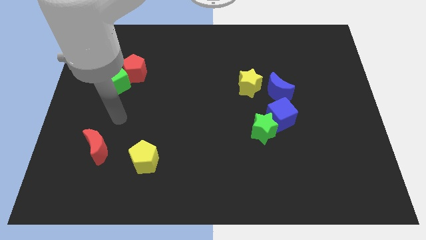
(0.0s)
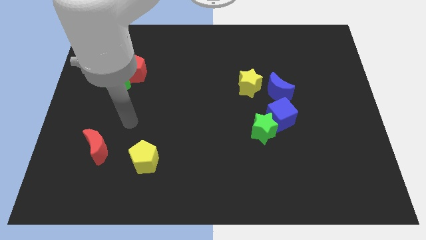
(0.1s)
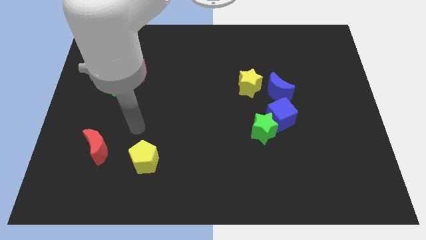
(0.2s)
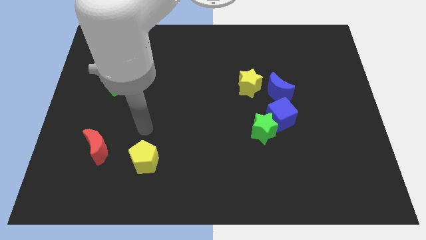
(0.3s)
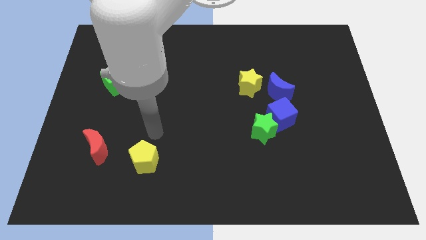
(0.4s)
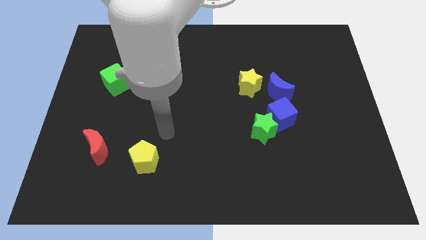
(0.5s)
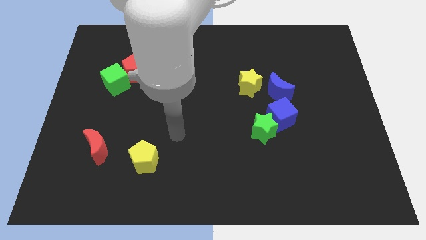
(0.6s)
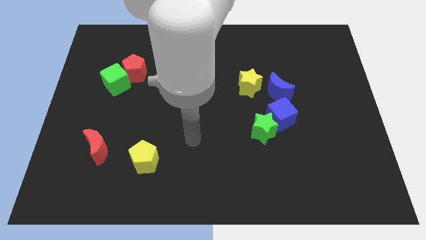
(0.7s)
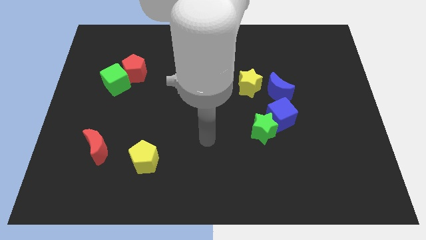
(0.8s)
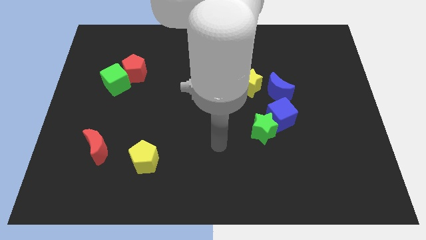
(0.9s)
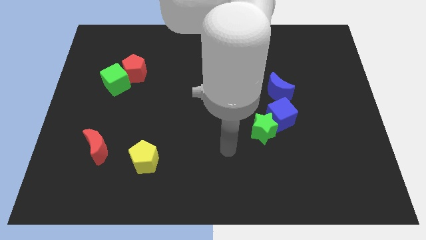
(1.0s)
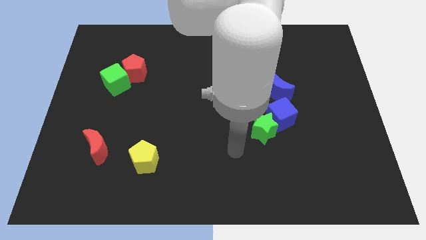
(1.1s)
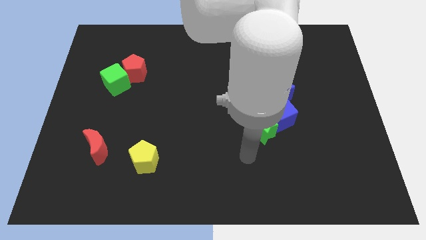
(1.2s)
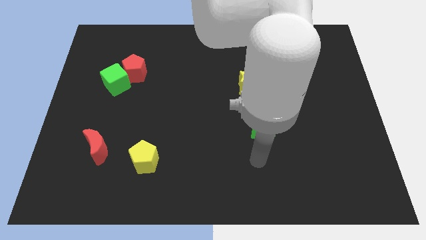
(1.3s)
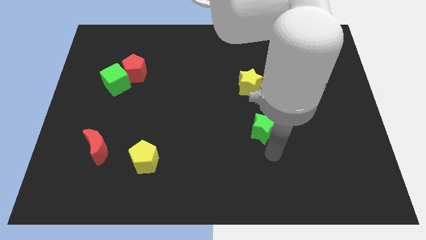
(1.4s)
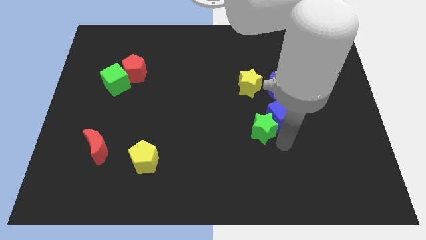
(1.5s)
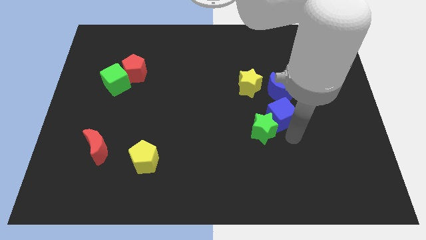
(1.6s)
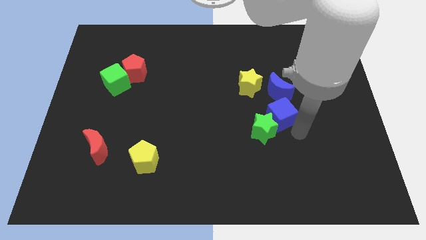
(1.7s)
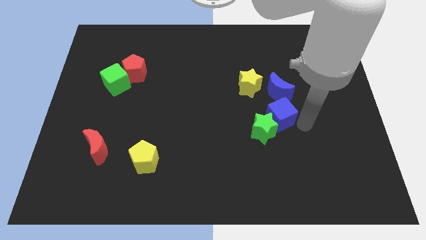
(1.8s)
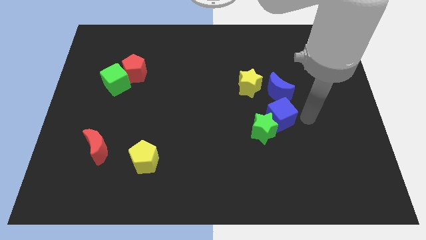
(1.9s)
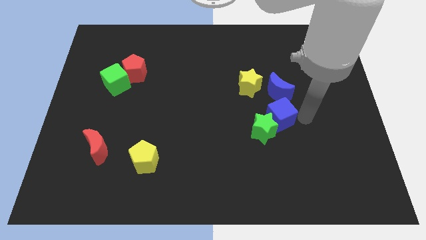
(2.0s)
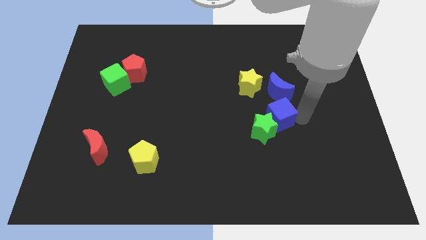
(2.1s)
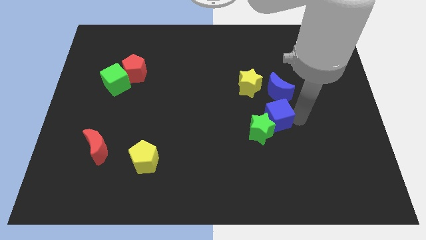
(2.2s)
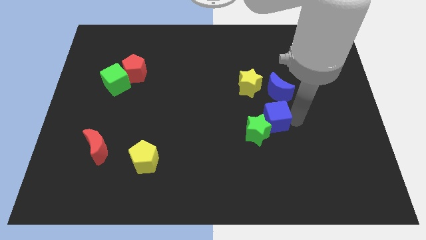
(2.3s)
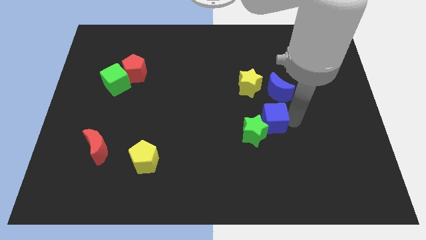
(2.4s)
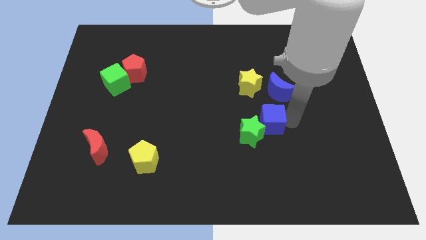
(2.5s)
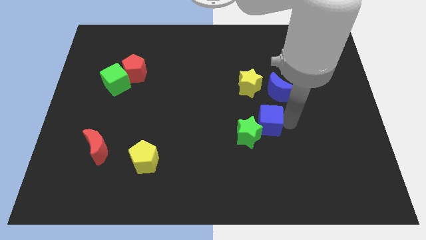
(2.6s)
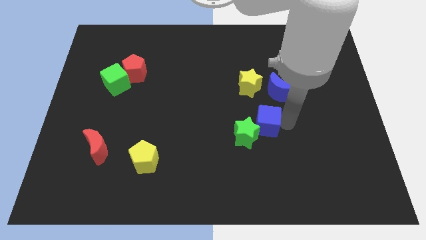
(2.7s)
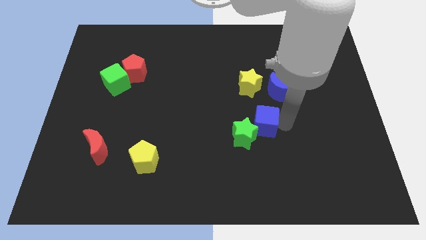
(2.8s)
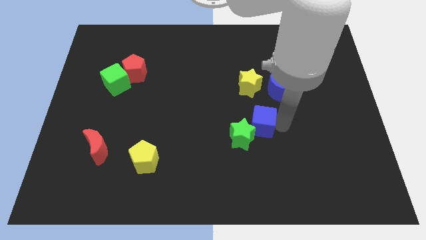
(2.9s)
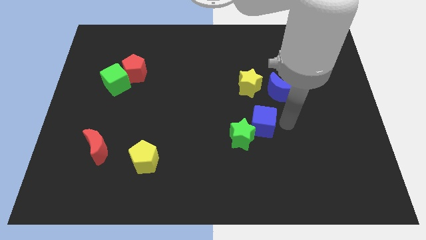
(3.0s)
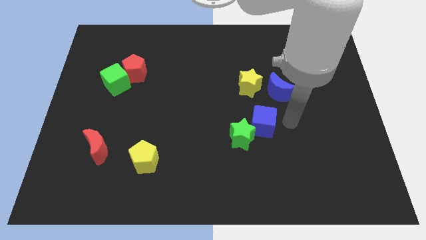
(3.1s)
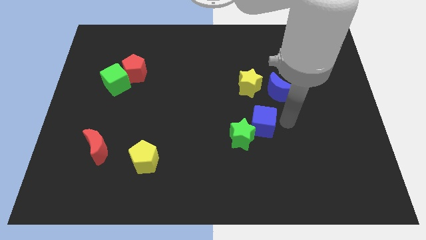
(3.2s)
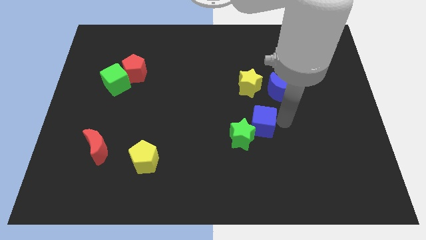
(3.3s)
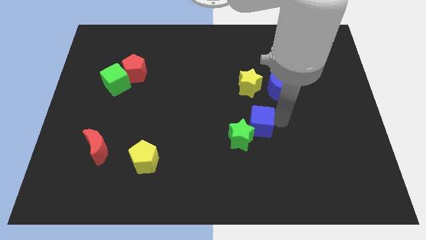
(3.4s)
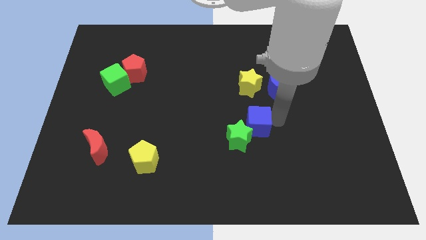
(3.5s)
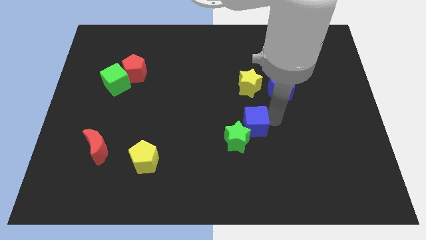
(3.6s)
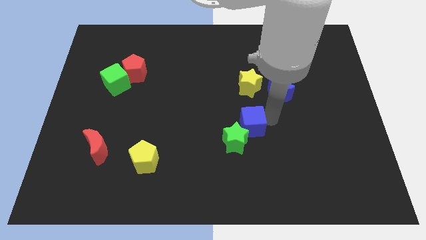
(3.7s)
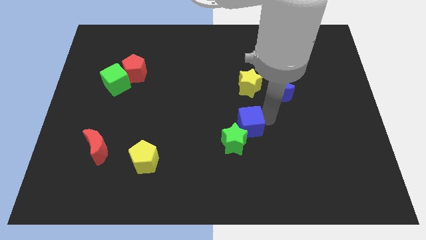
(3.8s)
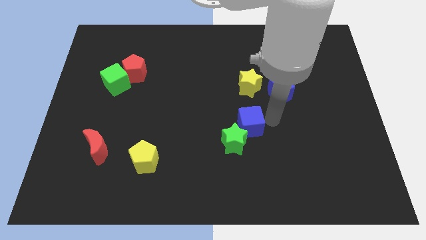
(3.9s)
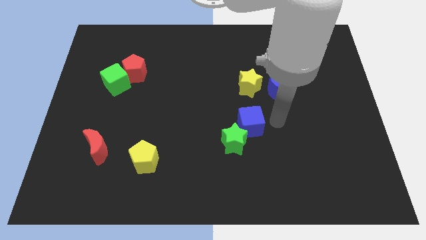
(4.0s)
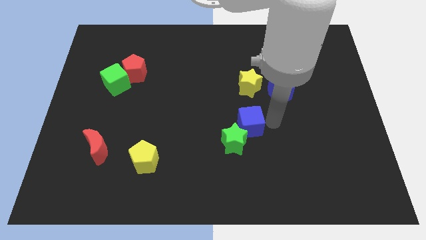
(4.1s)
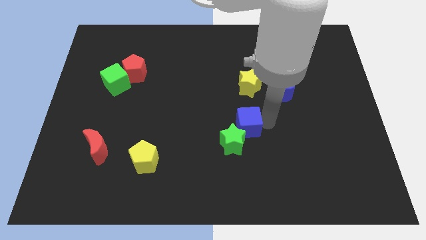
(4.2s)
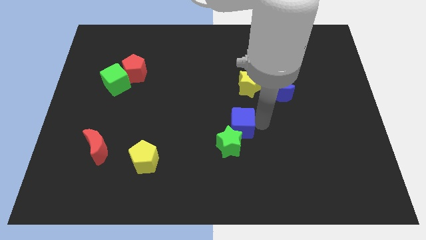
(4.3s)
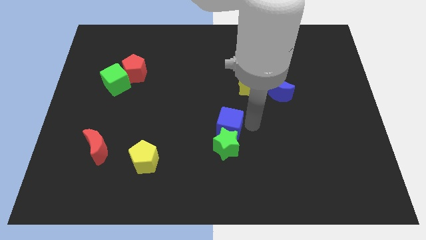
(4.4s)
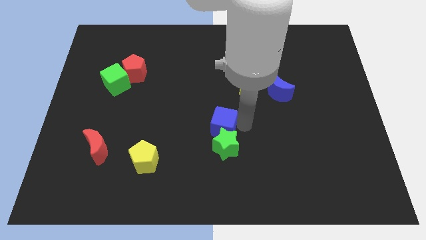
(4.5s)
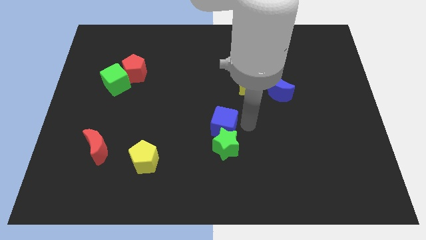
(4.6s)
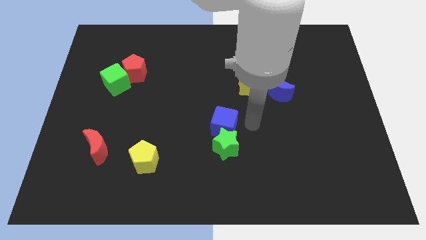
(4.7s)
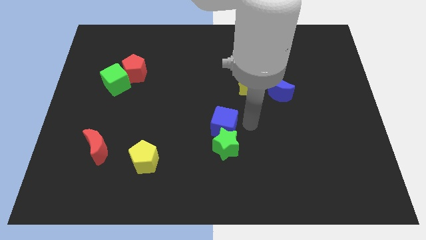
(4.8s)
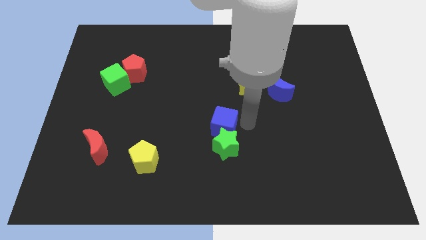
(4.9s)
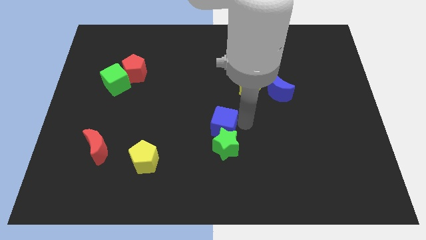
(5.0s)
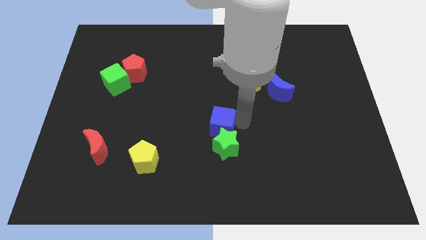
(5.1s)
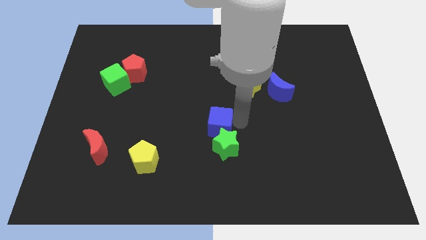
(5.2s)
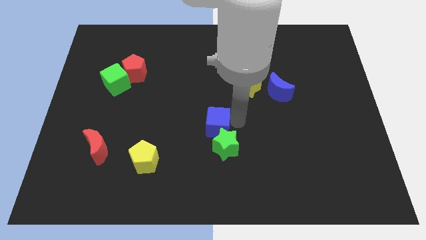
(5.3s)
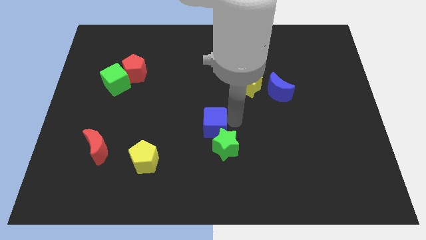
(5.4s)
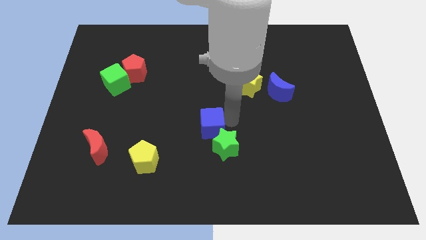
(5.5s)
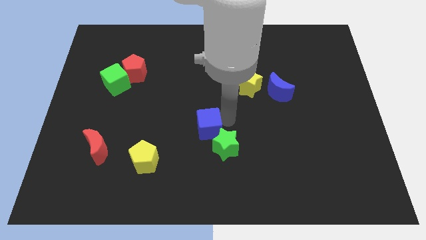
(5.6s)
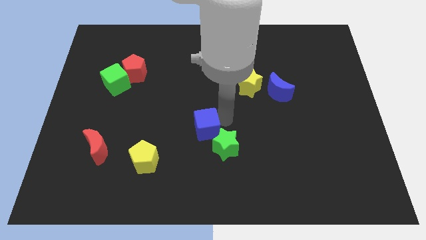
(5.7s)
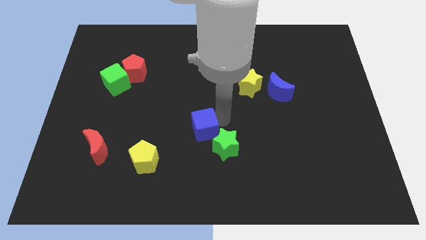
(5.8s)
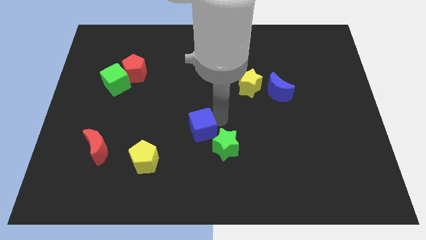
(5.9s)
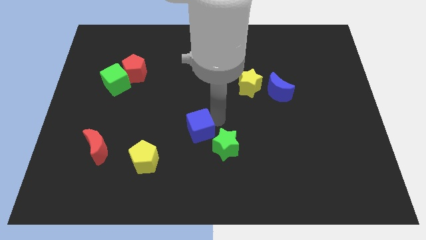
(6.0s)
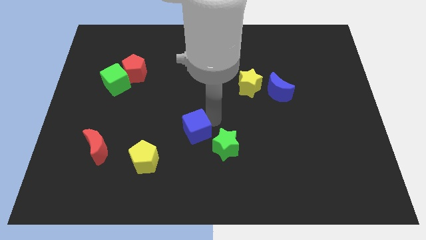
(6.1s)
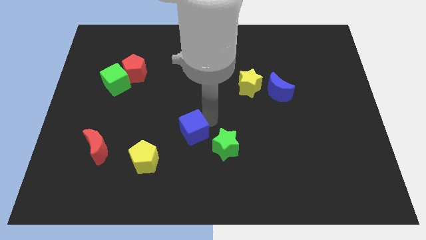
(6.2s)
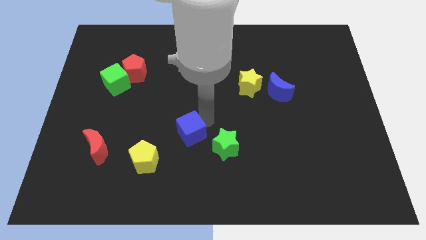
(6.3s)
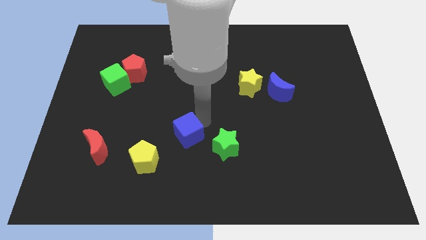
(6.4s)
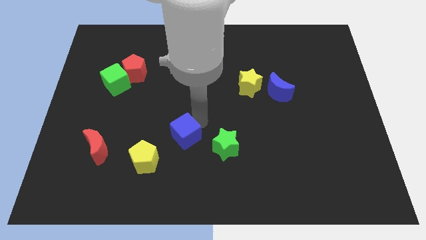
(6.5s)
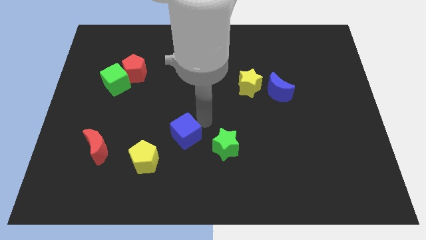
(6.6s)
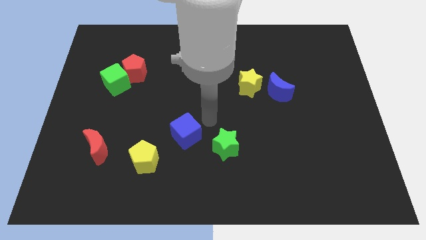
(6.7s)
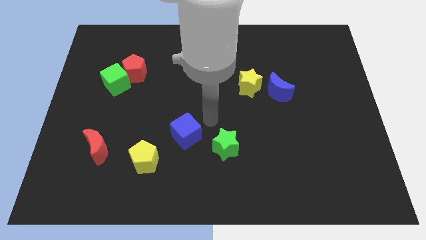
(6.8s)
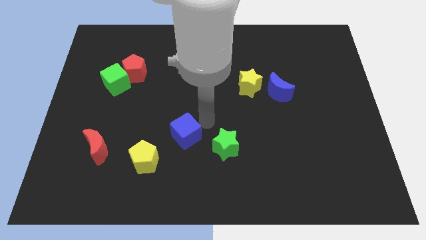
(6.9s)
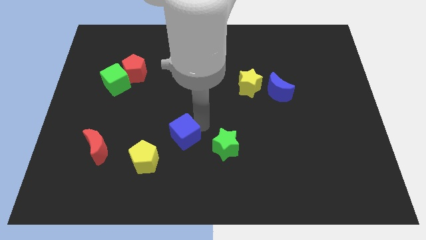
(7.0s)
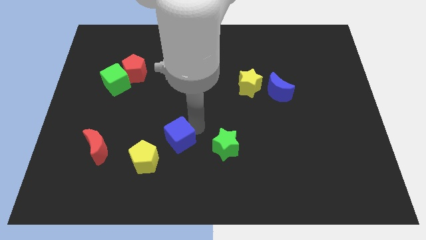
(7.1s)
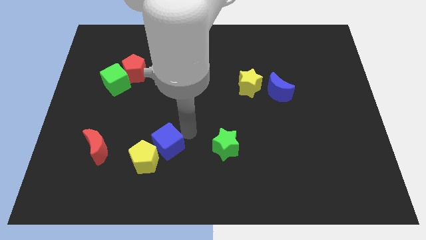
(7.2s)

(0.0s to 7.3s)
put the blue cube next to the yellow pentagon
